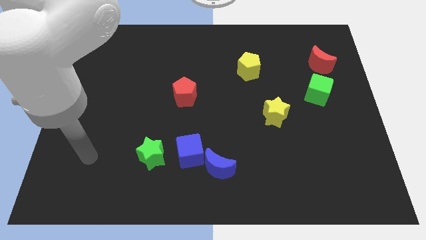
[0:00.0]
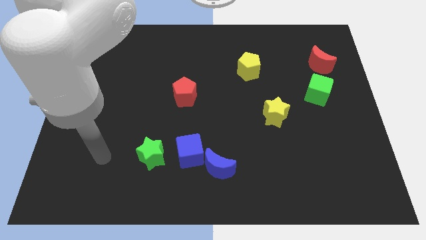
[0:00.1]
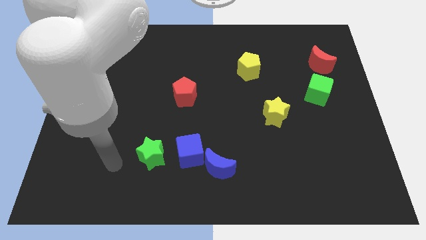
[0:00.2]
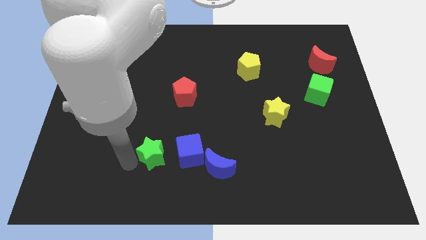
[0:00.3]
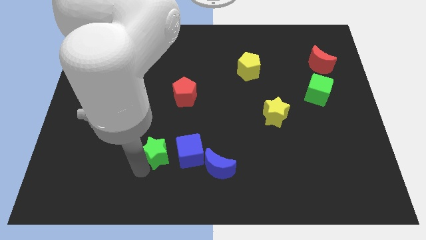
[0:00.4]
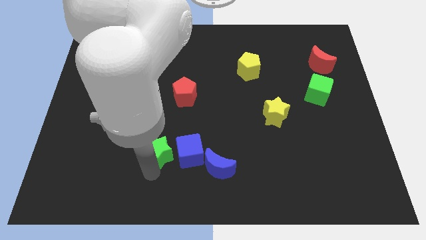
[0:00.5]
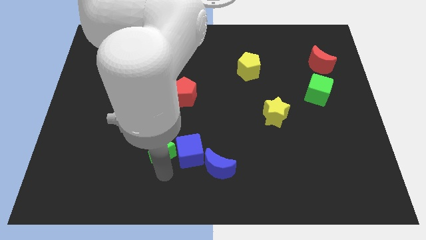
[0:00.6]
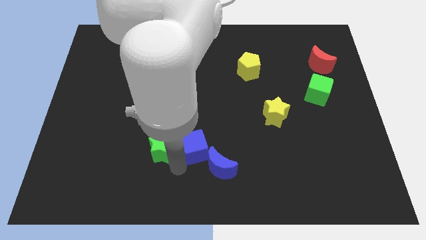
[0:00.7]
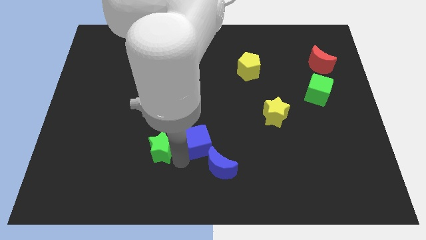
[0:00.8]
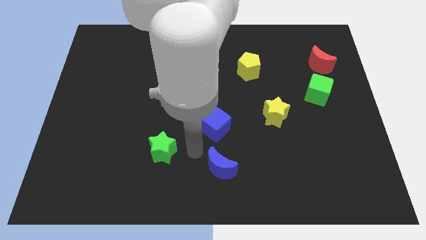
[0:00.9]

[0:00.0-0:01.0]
pull the blue moon apart from the blue cube

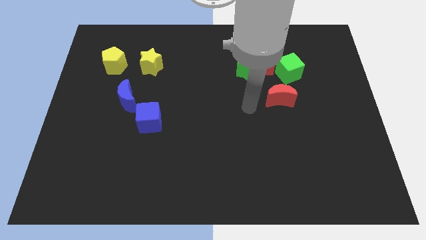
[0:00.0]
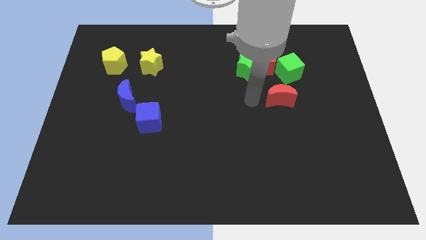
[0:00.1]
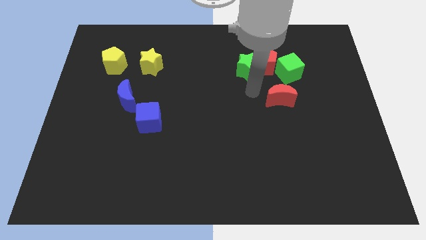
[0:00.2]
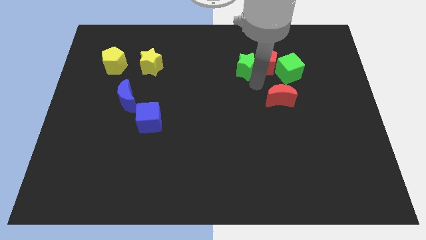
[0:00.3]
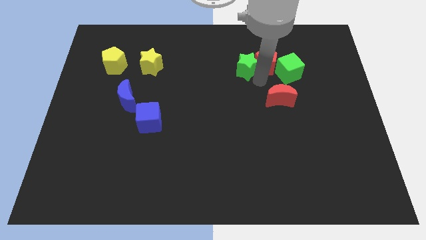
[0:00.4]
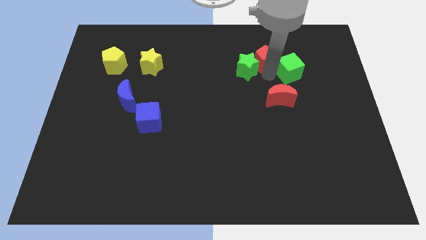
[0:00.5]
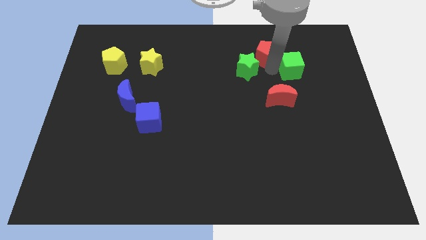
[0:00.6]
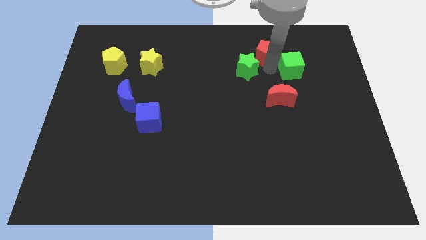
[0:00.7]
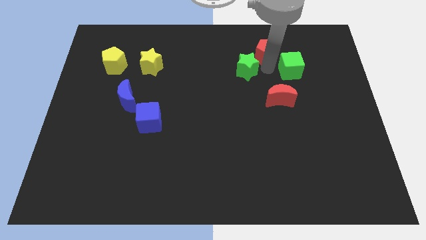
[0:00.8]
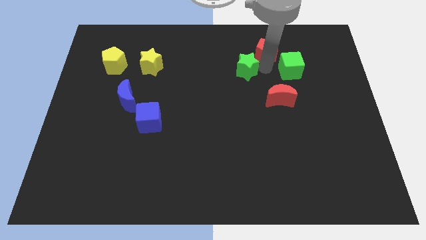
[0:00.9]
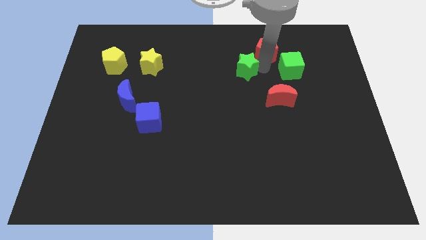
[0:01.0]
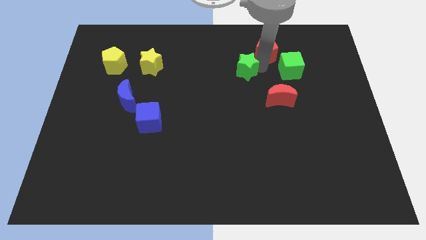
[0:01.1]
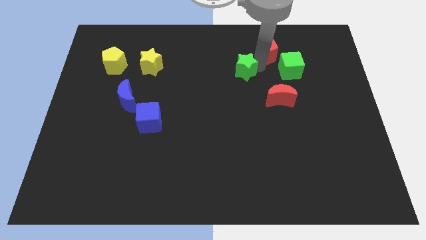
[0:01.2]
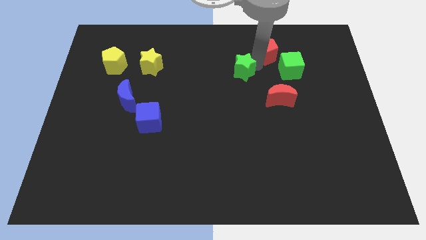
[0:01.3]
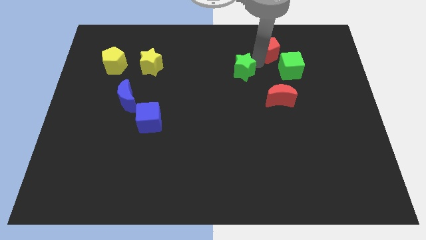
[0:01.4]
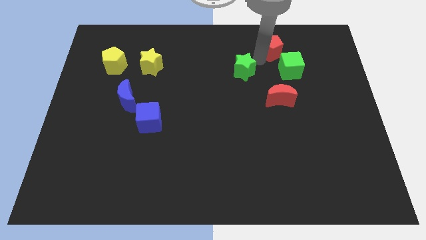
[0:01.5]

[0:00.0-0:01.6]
move the green star away from the red pentagon

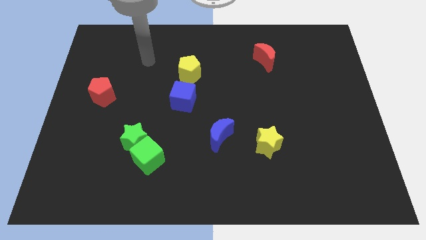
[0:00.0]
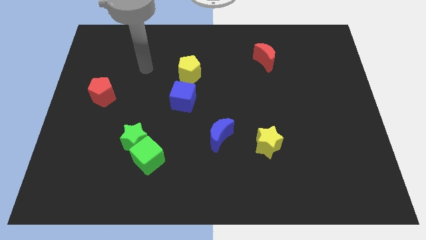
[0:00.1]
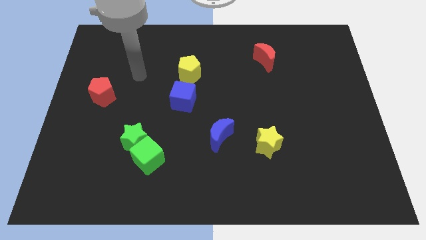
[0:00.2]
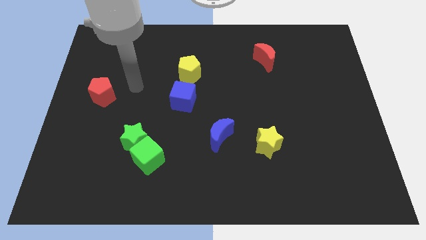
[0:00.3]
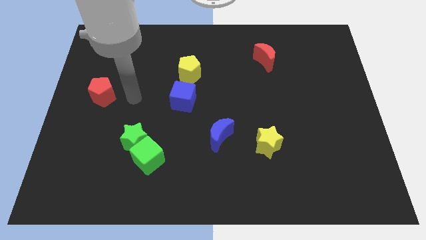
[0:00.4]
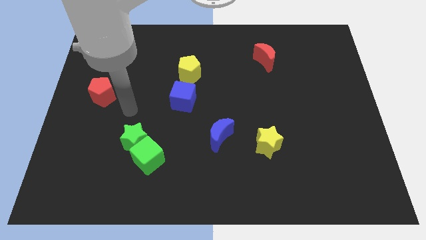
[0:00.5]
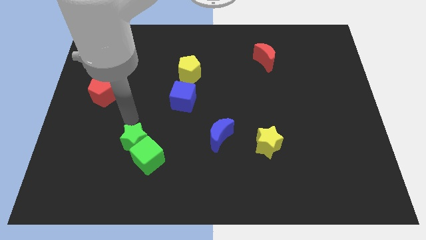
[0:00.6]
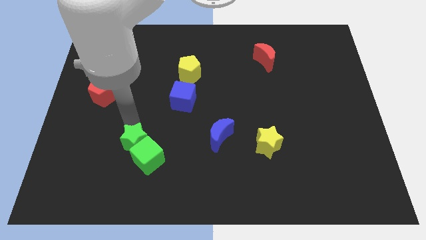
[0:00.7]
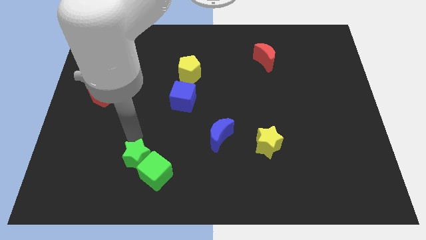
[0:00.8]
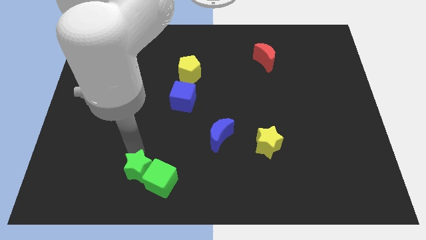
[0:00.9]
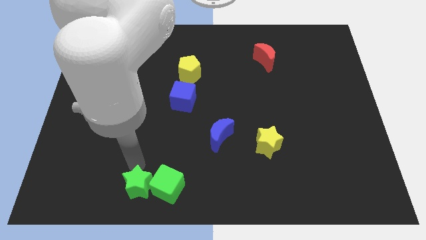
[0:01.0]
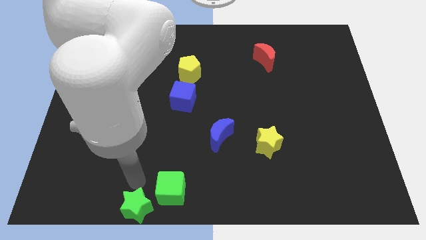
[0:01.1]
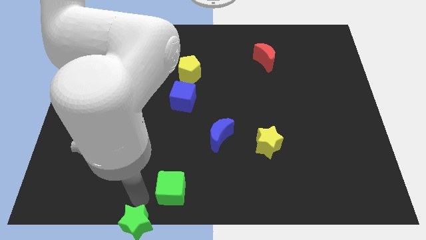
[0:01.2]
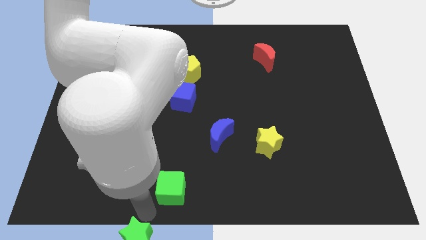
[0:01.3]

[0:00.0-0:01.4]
pull the green cube apart from the green star

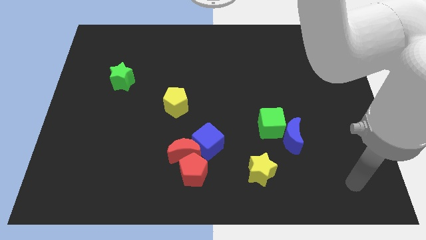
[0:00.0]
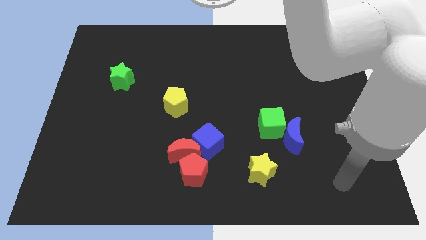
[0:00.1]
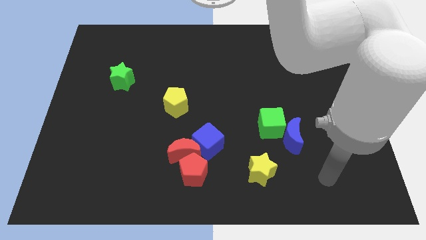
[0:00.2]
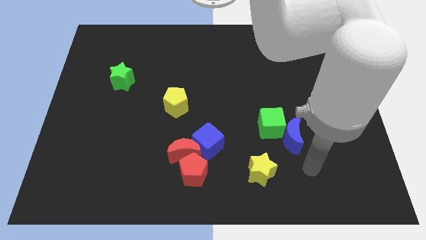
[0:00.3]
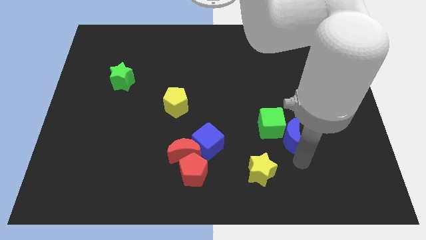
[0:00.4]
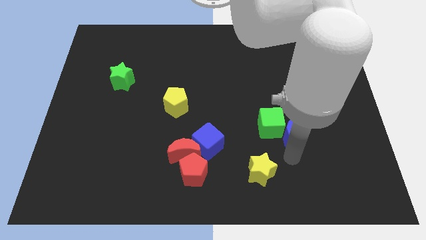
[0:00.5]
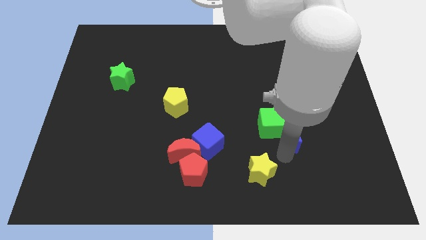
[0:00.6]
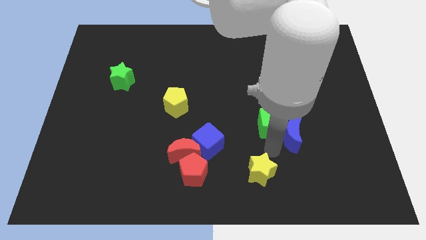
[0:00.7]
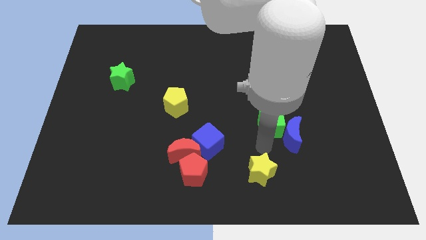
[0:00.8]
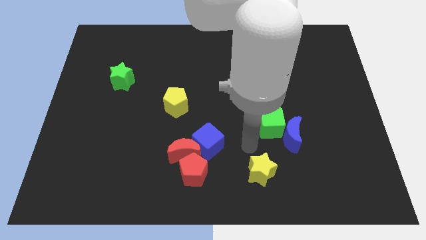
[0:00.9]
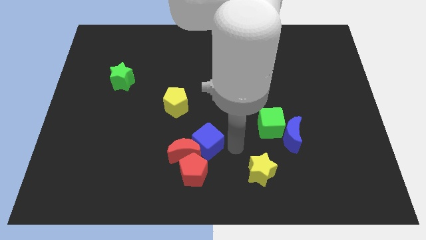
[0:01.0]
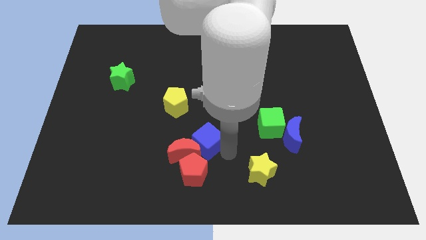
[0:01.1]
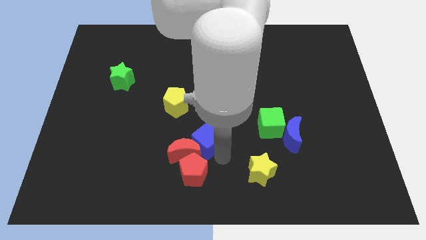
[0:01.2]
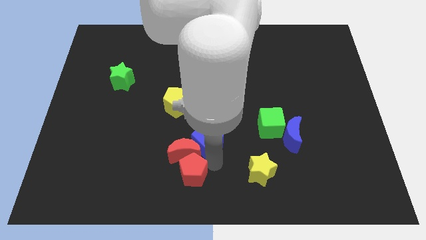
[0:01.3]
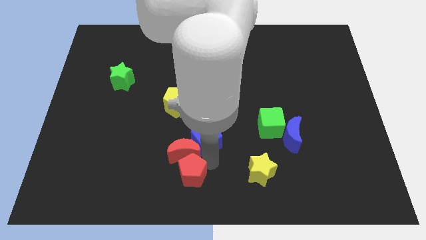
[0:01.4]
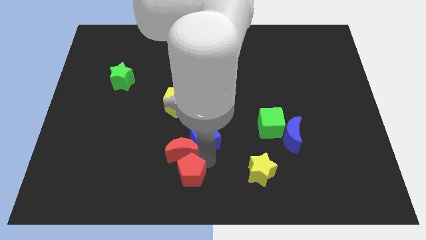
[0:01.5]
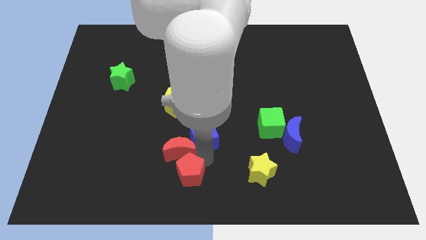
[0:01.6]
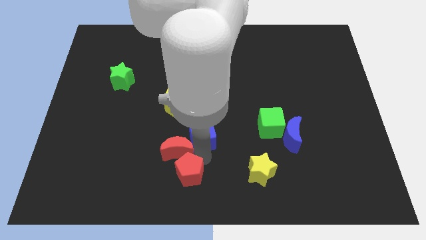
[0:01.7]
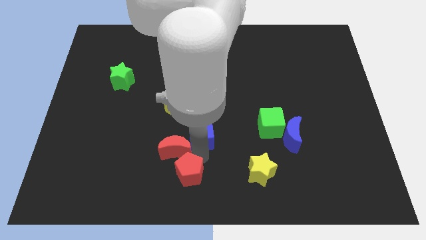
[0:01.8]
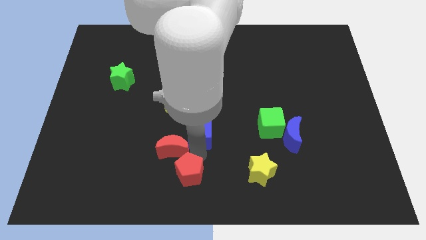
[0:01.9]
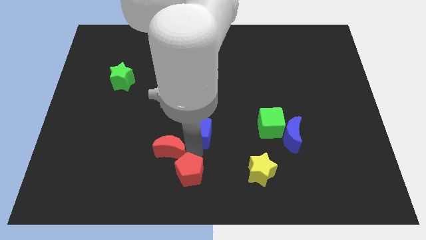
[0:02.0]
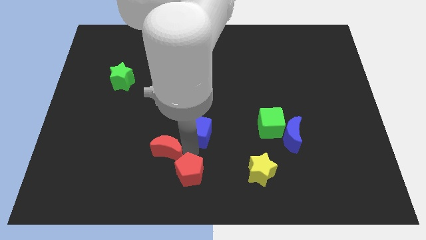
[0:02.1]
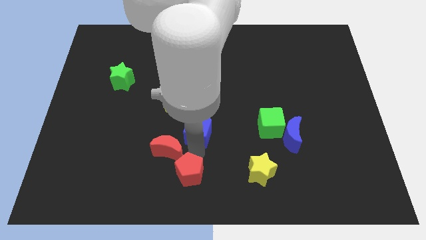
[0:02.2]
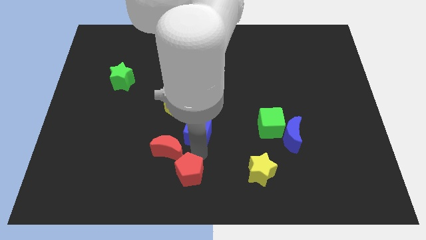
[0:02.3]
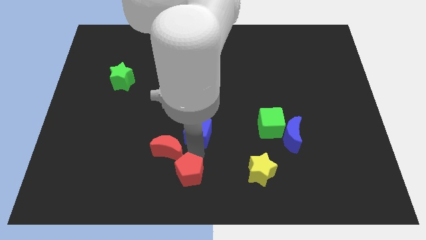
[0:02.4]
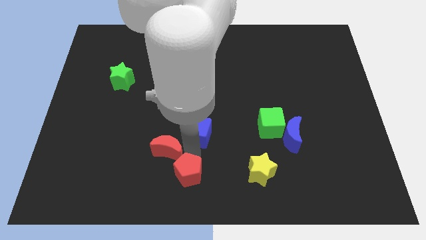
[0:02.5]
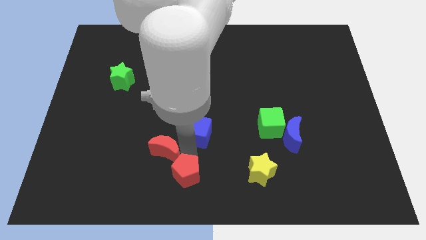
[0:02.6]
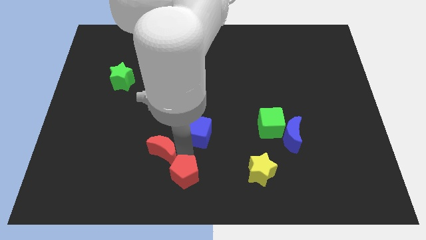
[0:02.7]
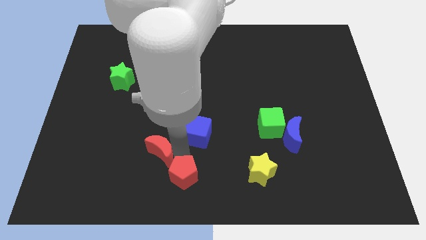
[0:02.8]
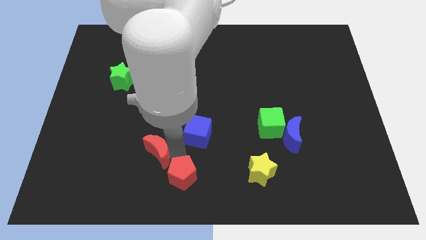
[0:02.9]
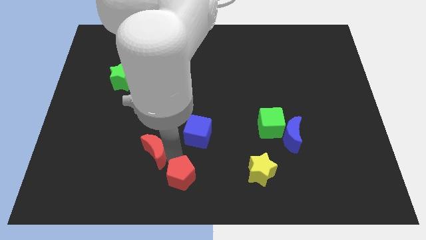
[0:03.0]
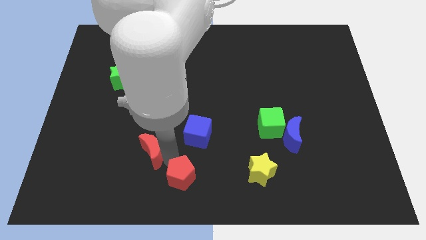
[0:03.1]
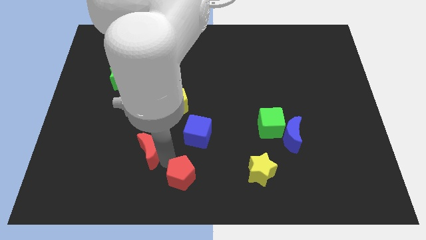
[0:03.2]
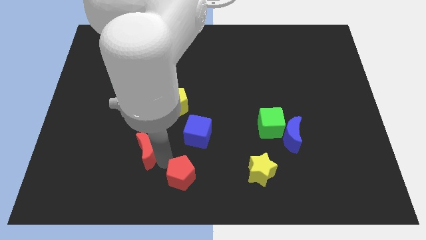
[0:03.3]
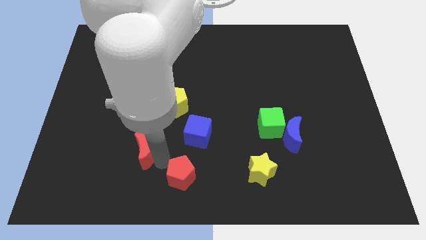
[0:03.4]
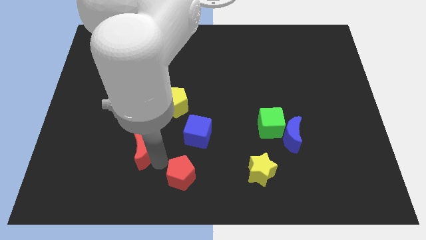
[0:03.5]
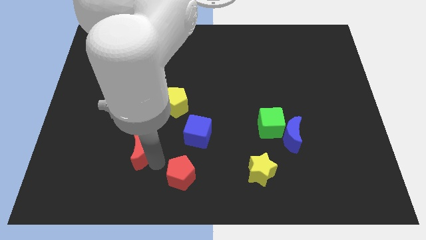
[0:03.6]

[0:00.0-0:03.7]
move the red moon away from the red pentagon and blue cube

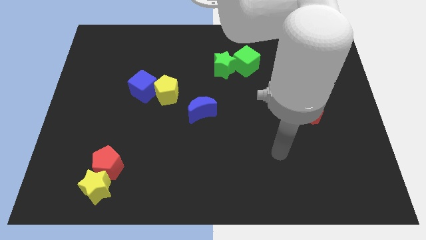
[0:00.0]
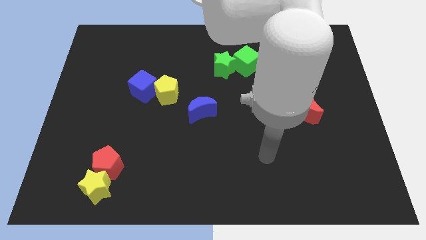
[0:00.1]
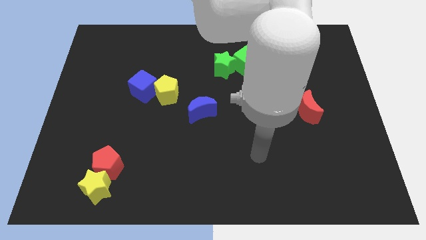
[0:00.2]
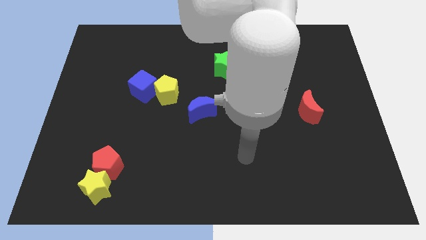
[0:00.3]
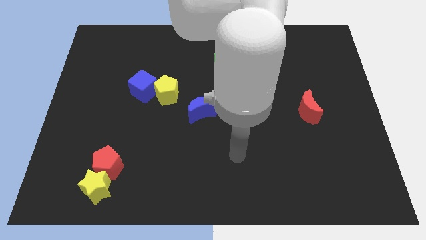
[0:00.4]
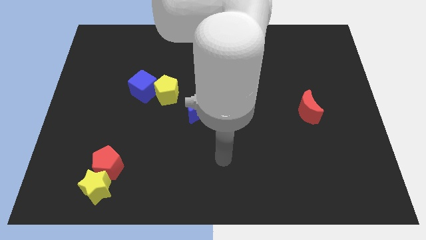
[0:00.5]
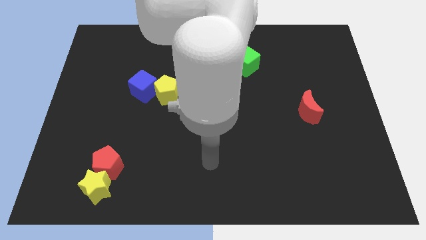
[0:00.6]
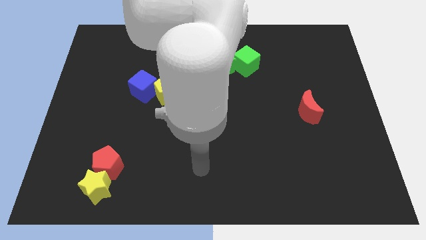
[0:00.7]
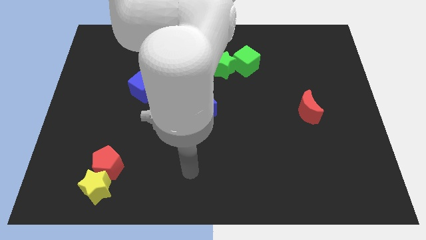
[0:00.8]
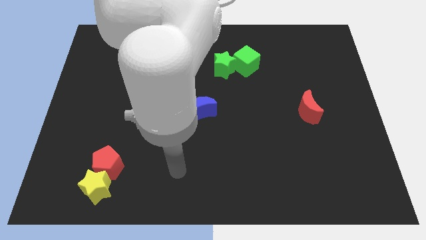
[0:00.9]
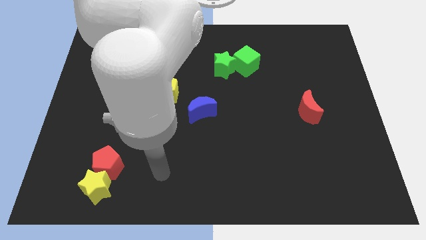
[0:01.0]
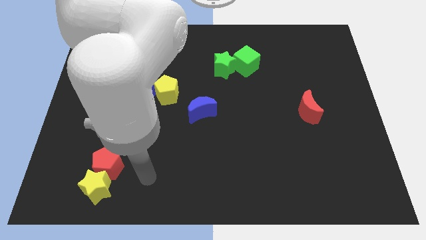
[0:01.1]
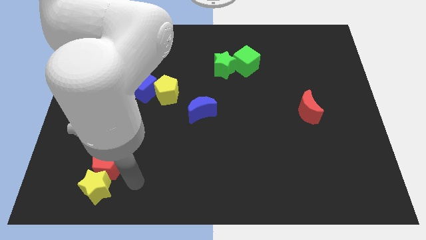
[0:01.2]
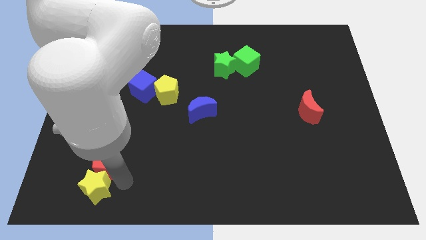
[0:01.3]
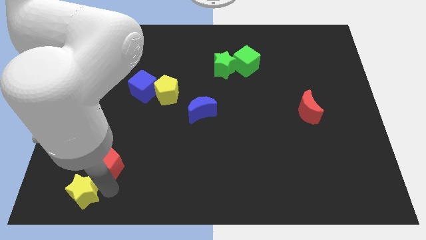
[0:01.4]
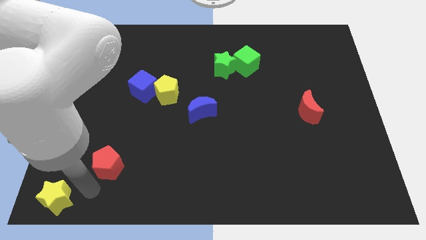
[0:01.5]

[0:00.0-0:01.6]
move the red pentagon away from the yellow star
